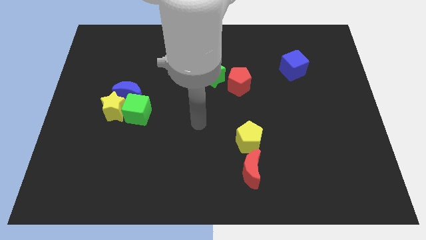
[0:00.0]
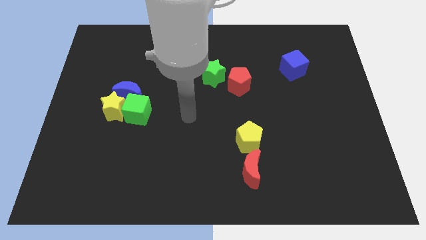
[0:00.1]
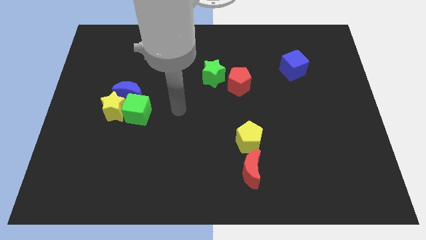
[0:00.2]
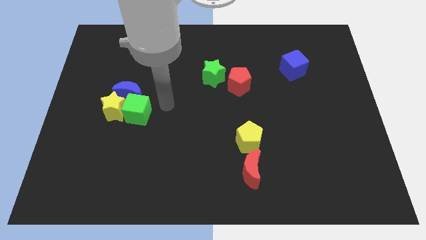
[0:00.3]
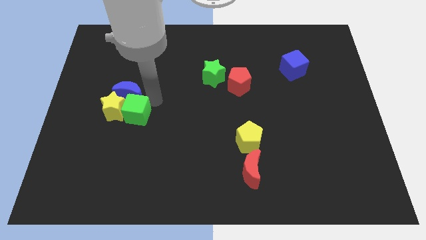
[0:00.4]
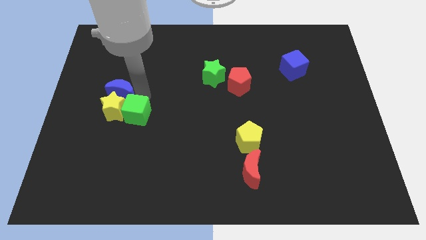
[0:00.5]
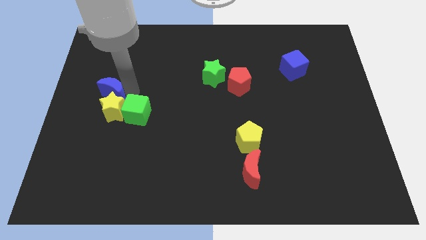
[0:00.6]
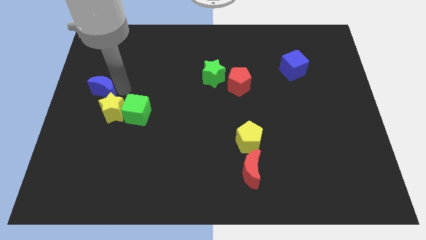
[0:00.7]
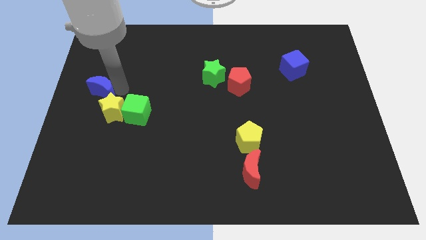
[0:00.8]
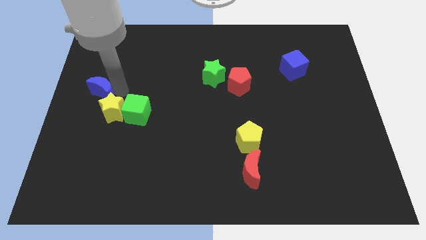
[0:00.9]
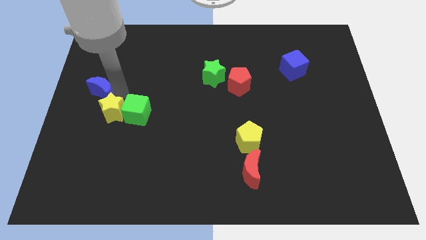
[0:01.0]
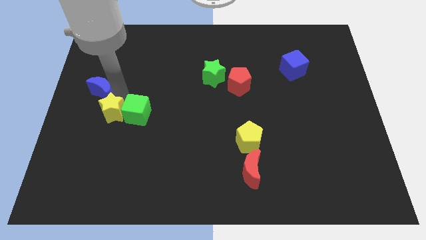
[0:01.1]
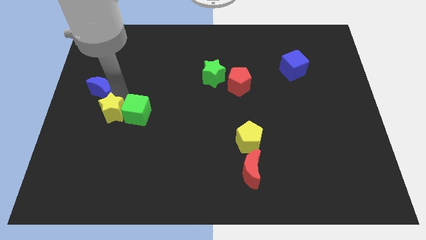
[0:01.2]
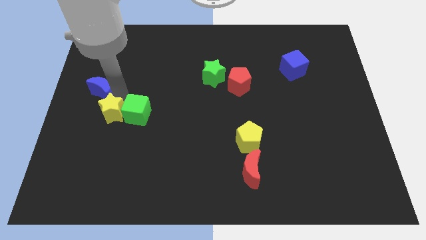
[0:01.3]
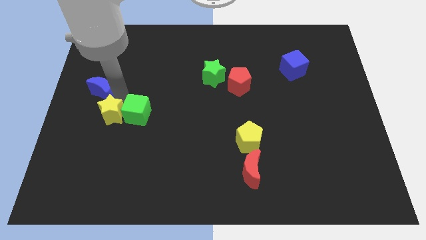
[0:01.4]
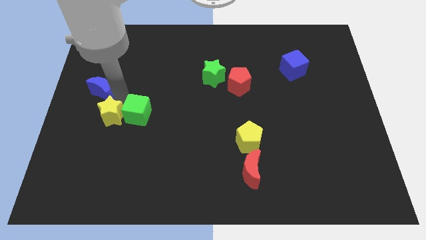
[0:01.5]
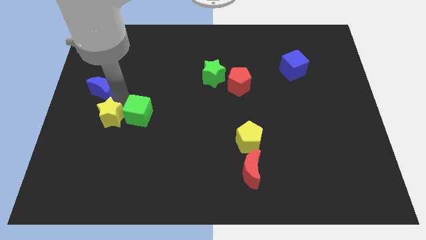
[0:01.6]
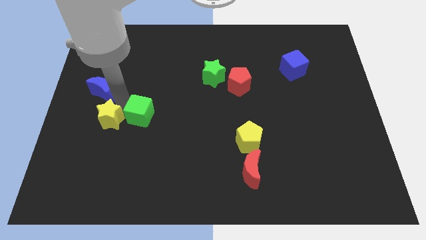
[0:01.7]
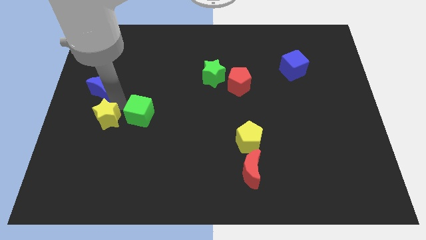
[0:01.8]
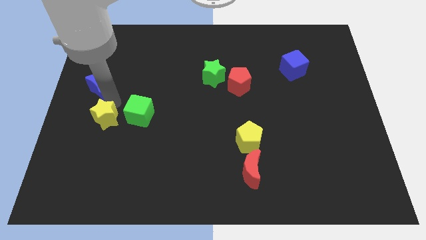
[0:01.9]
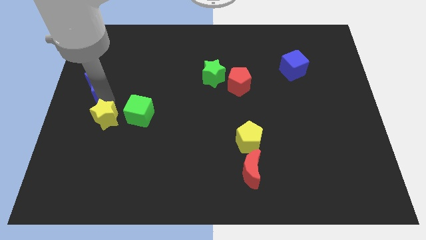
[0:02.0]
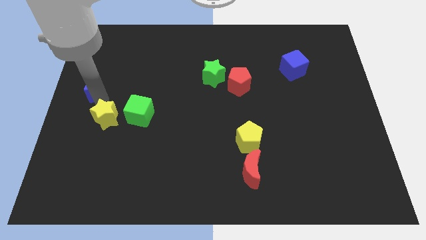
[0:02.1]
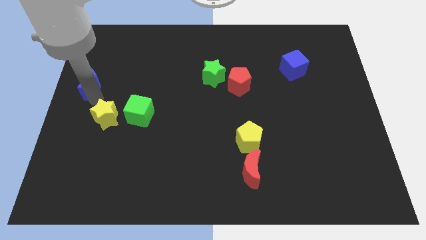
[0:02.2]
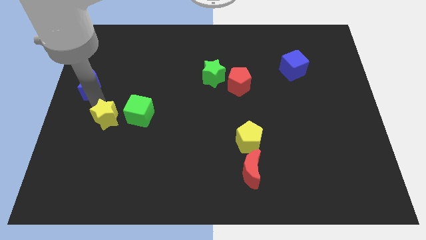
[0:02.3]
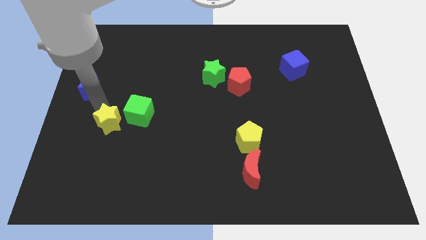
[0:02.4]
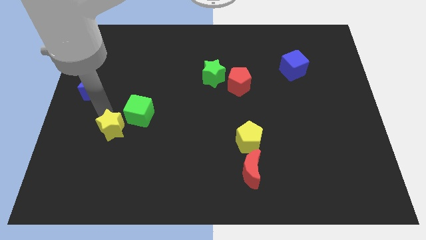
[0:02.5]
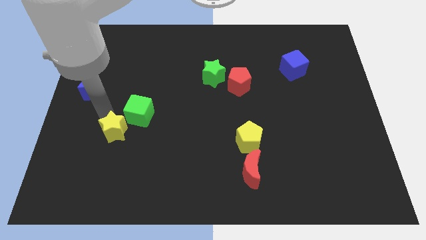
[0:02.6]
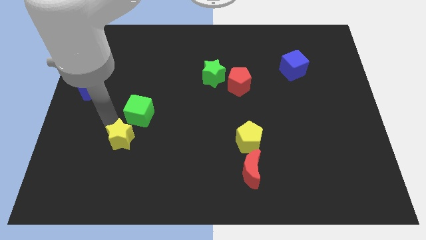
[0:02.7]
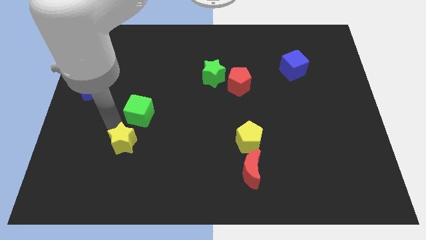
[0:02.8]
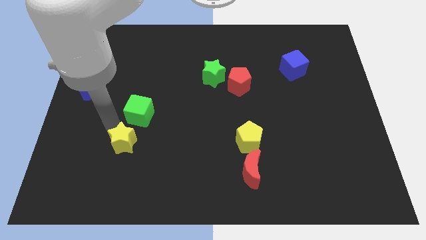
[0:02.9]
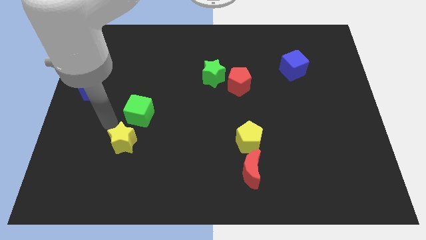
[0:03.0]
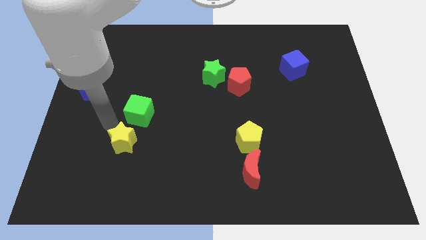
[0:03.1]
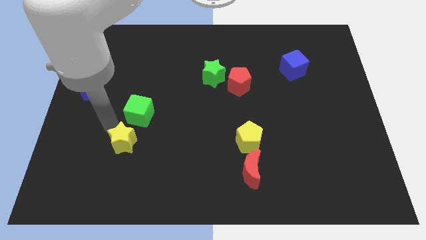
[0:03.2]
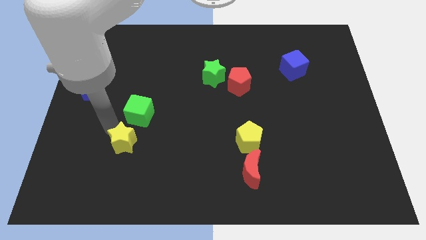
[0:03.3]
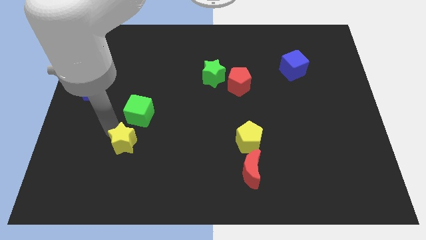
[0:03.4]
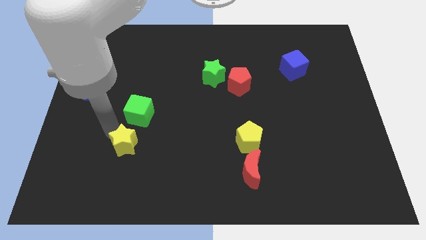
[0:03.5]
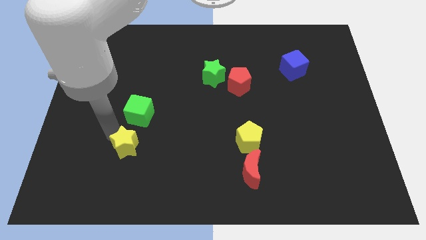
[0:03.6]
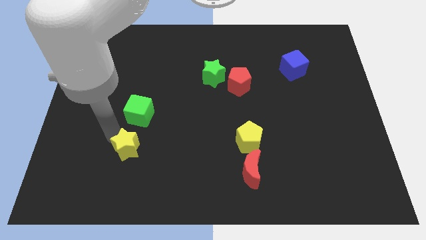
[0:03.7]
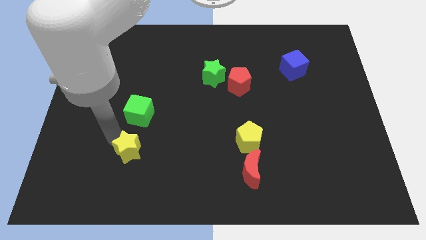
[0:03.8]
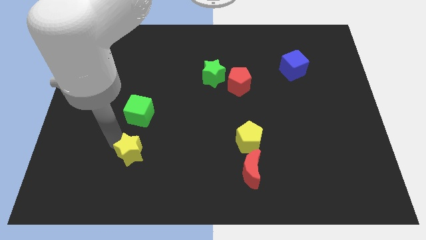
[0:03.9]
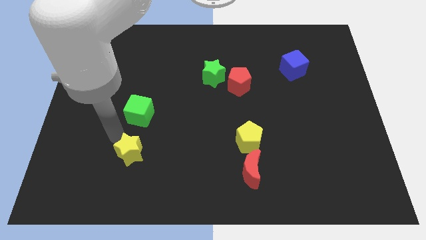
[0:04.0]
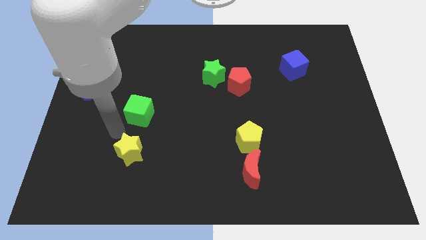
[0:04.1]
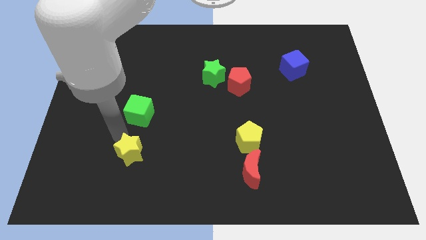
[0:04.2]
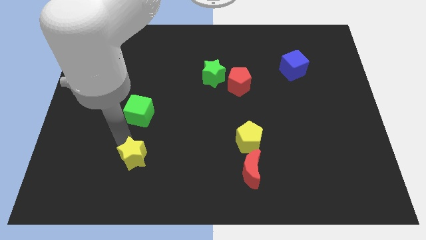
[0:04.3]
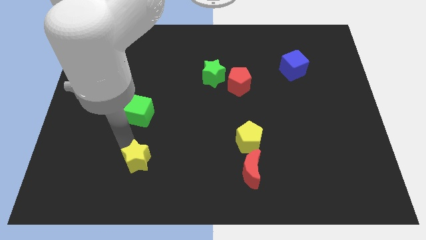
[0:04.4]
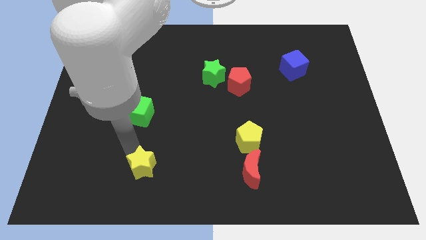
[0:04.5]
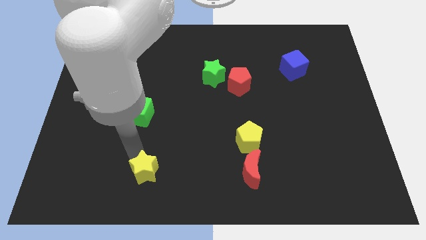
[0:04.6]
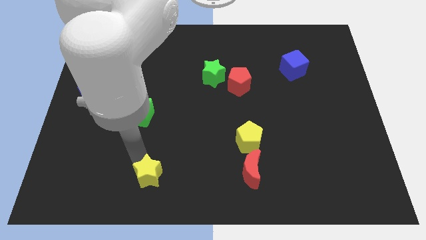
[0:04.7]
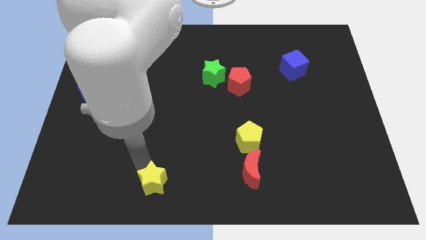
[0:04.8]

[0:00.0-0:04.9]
slide the yellow star to the bottom side

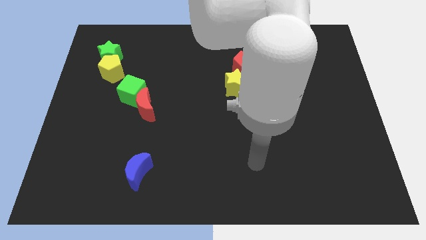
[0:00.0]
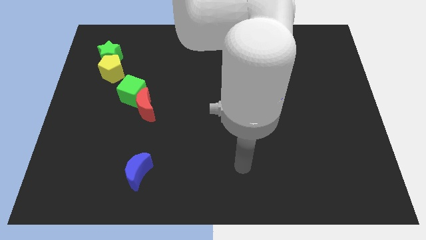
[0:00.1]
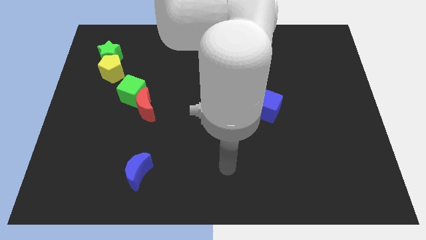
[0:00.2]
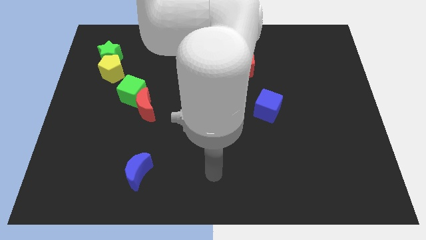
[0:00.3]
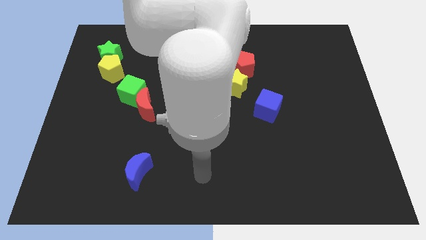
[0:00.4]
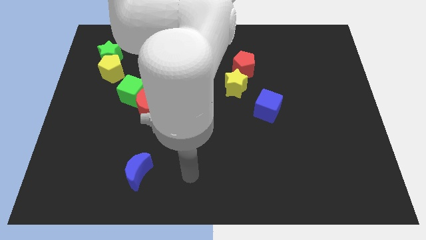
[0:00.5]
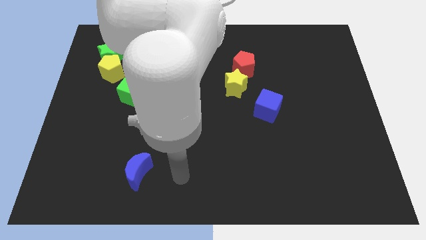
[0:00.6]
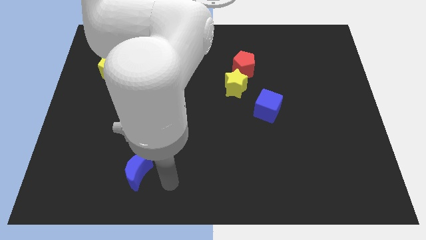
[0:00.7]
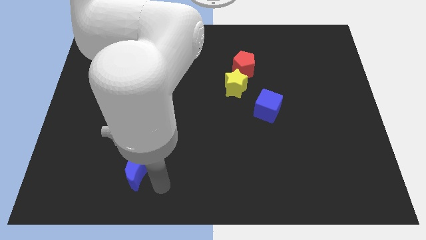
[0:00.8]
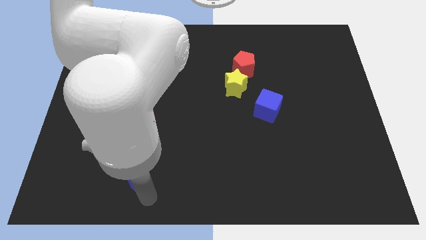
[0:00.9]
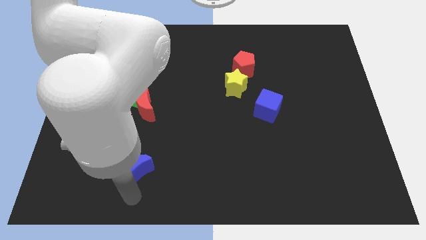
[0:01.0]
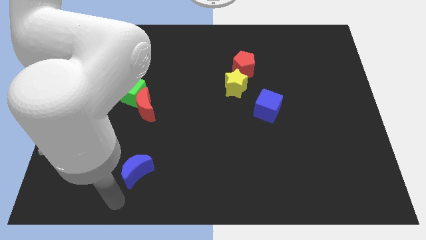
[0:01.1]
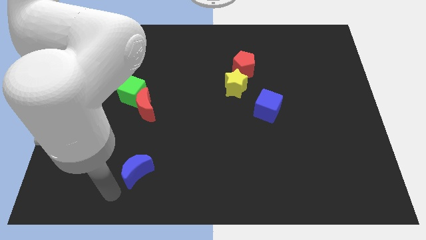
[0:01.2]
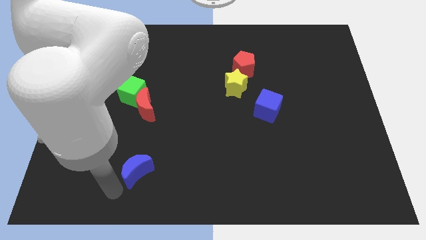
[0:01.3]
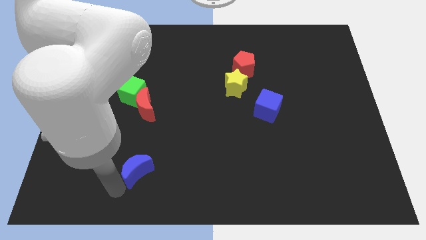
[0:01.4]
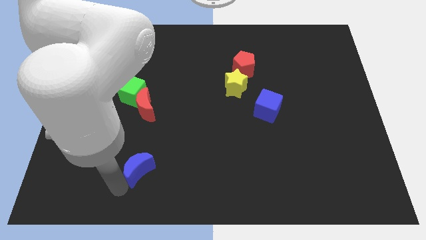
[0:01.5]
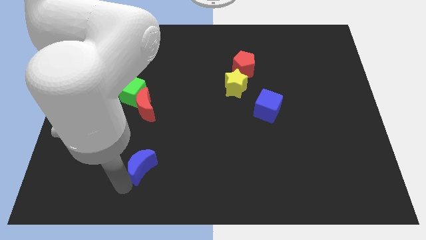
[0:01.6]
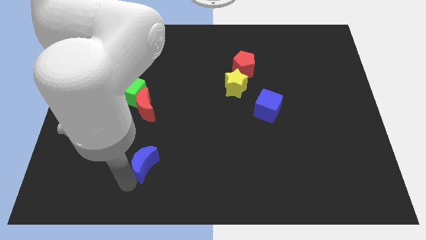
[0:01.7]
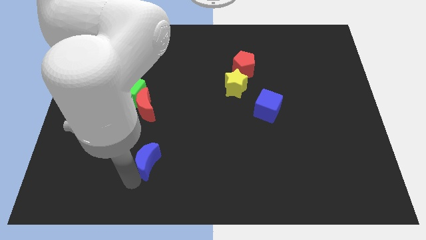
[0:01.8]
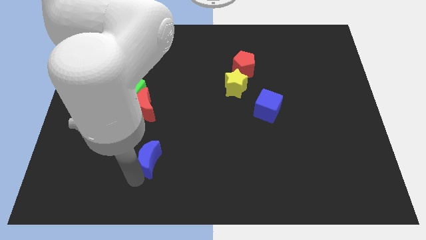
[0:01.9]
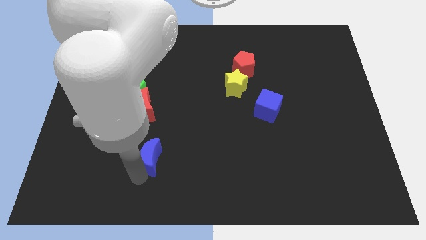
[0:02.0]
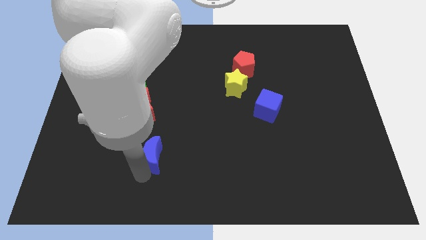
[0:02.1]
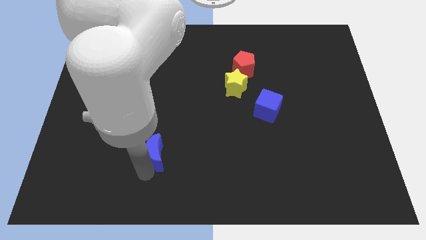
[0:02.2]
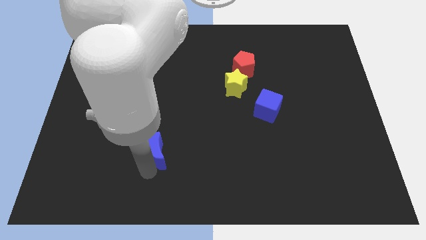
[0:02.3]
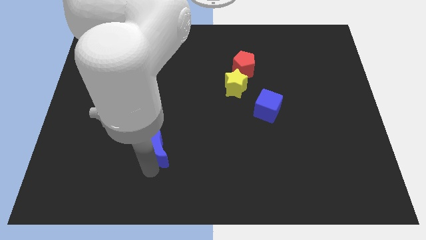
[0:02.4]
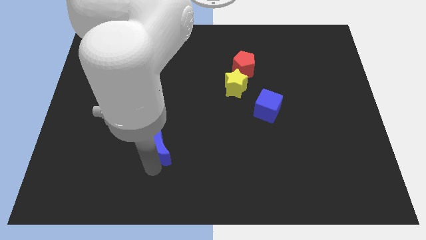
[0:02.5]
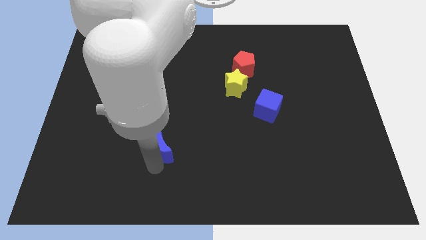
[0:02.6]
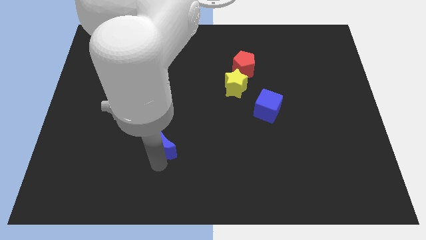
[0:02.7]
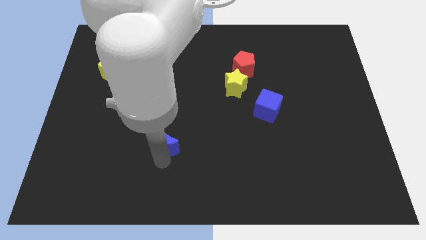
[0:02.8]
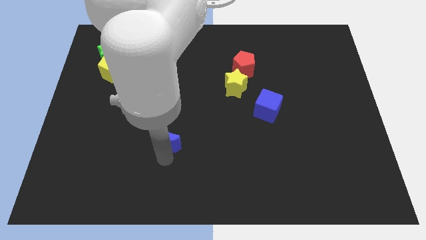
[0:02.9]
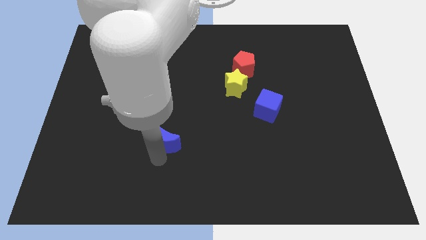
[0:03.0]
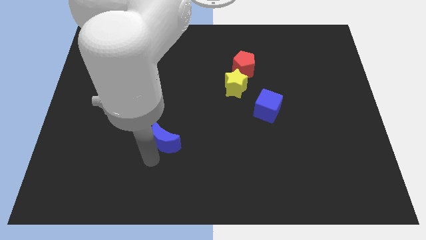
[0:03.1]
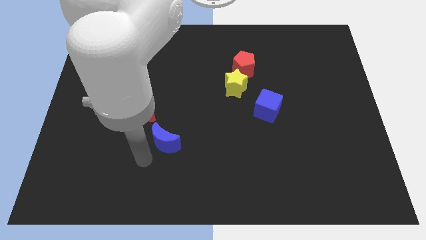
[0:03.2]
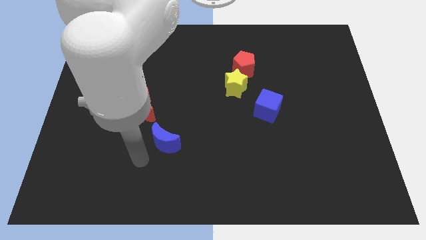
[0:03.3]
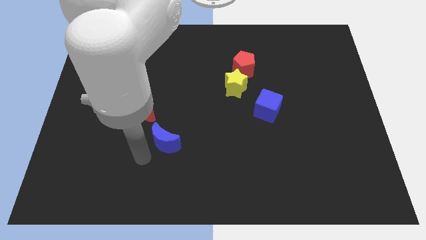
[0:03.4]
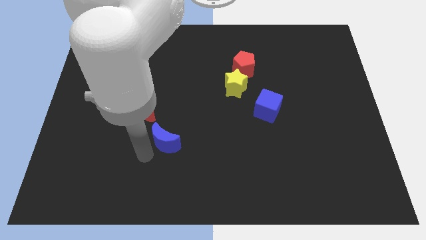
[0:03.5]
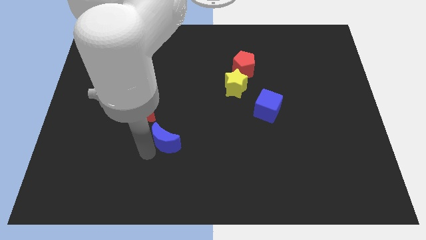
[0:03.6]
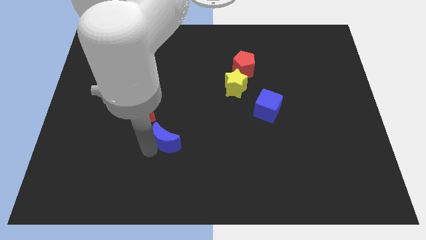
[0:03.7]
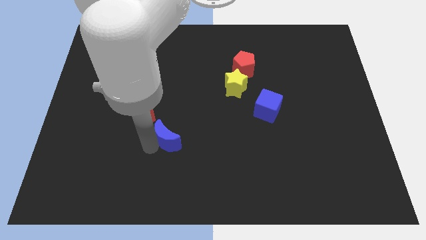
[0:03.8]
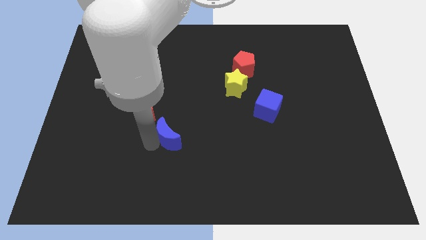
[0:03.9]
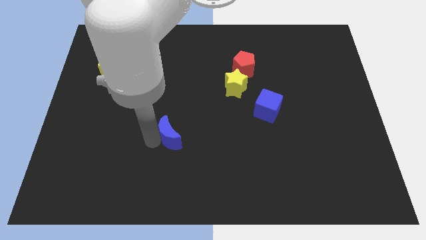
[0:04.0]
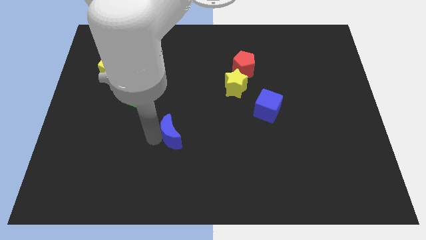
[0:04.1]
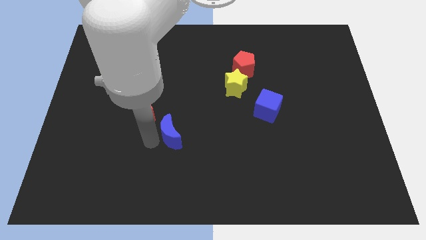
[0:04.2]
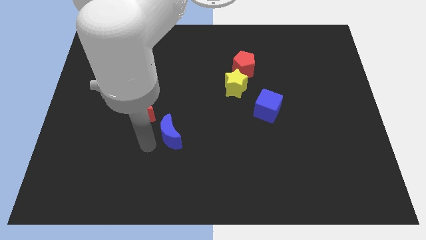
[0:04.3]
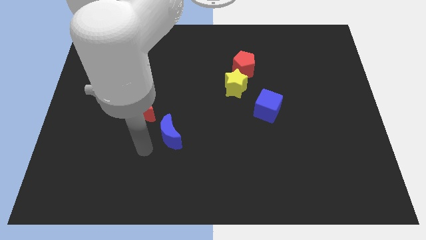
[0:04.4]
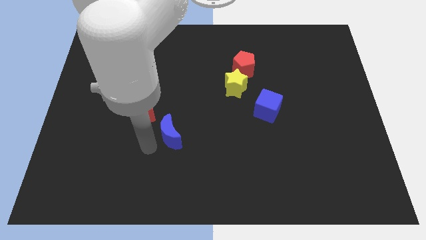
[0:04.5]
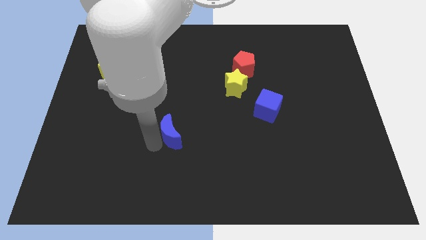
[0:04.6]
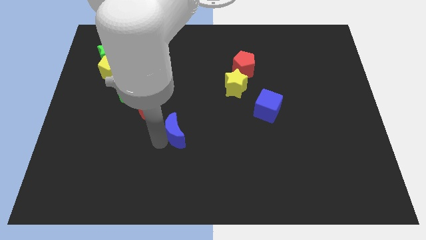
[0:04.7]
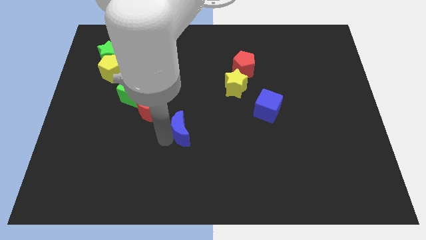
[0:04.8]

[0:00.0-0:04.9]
push the blue moon to the center
